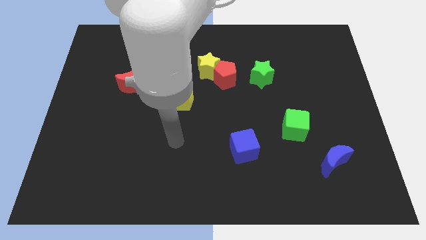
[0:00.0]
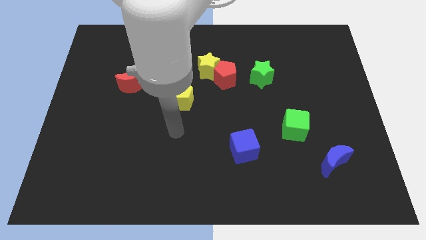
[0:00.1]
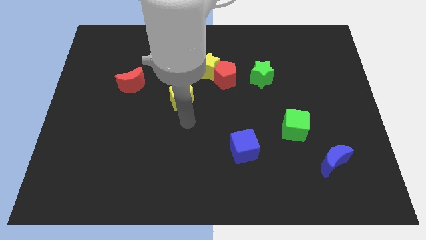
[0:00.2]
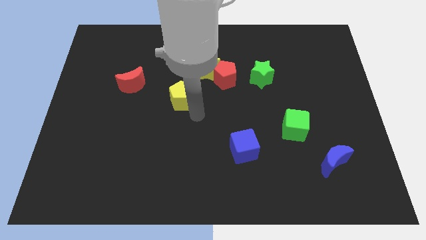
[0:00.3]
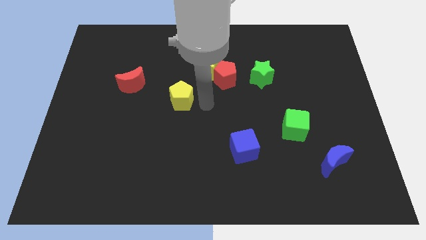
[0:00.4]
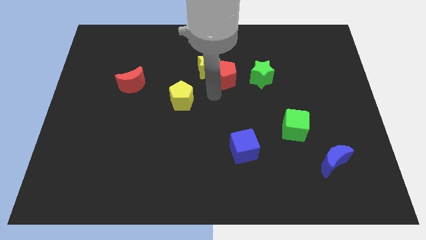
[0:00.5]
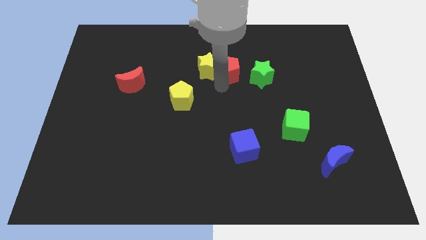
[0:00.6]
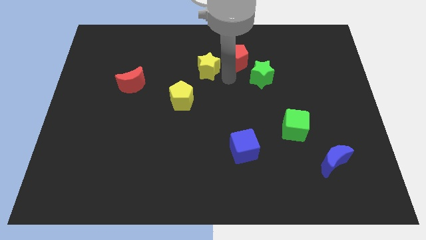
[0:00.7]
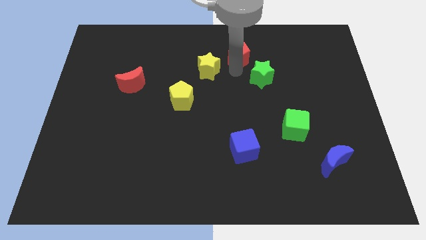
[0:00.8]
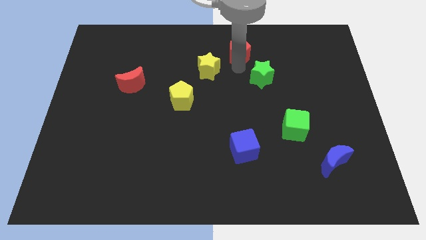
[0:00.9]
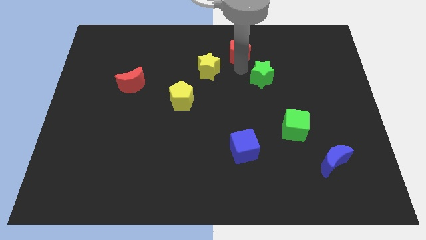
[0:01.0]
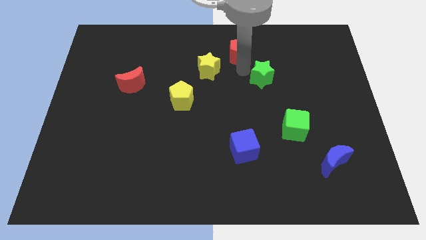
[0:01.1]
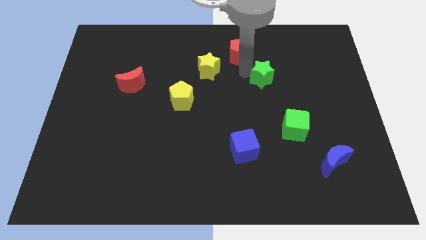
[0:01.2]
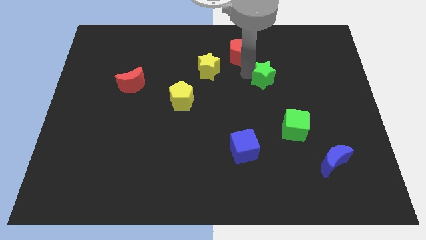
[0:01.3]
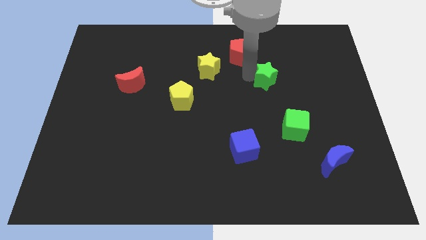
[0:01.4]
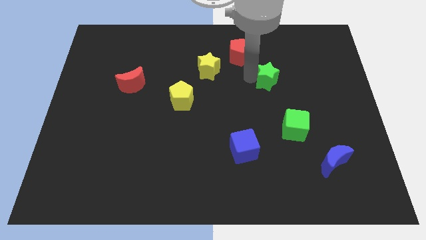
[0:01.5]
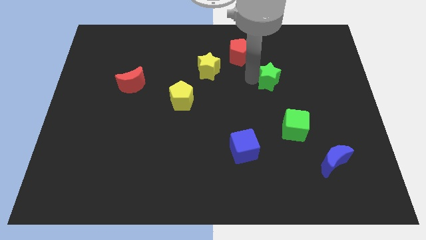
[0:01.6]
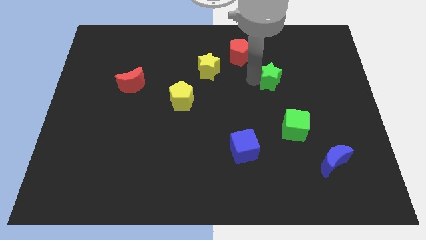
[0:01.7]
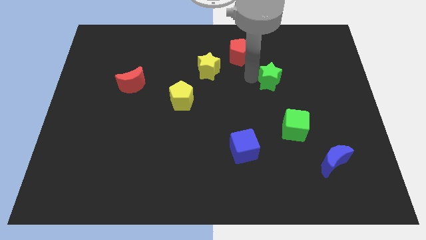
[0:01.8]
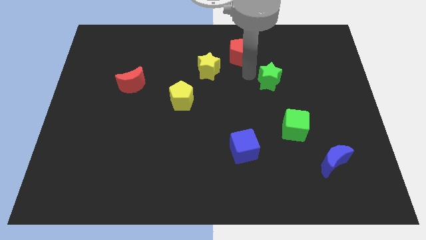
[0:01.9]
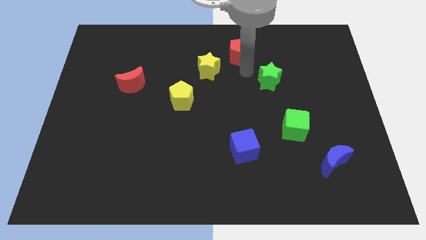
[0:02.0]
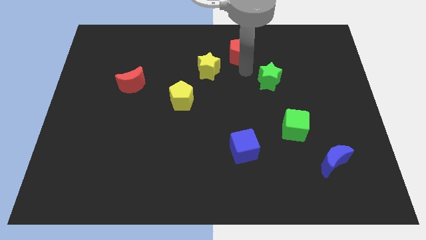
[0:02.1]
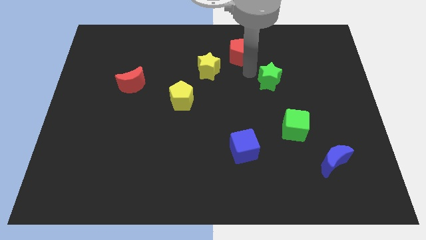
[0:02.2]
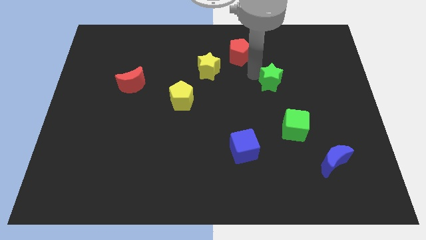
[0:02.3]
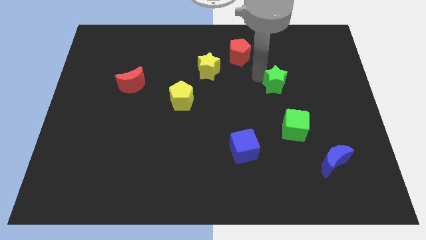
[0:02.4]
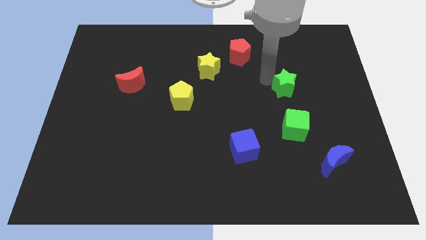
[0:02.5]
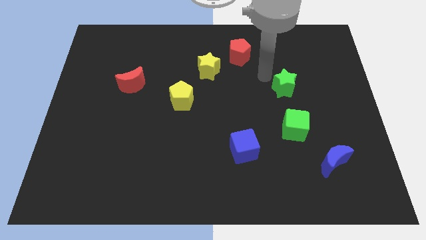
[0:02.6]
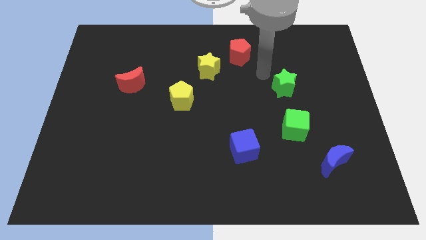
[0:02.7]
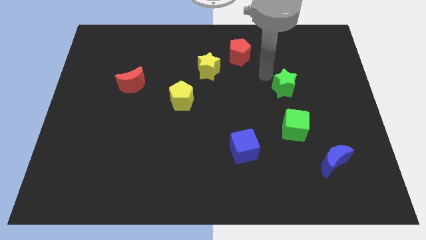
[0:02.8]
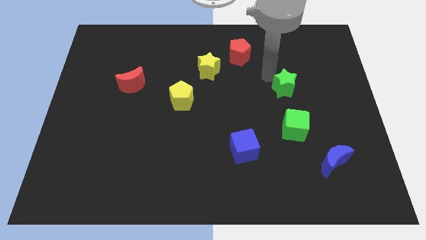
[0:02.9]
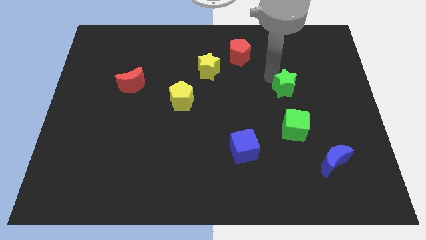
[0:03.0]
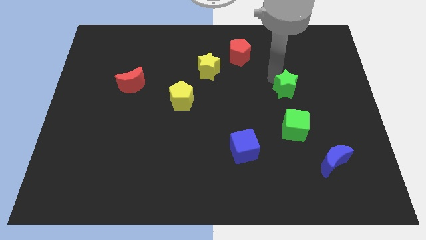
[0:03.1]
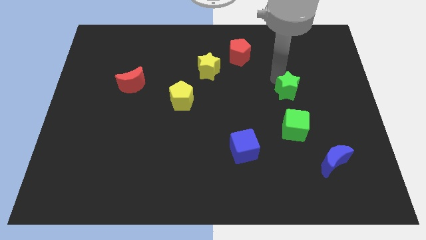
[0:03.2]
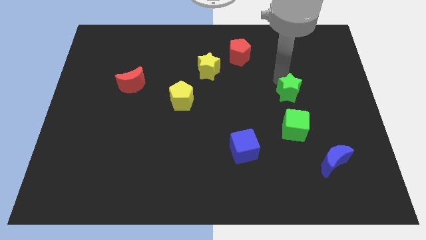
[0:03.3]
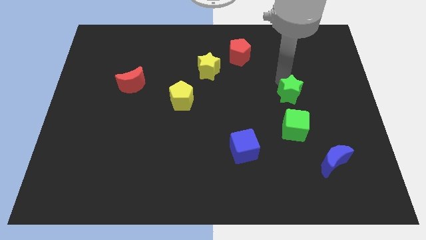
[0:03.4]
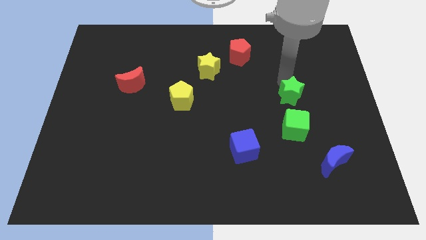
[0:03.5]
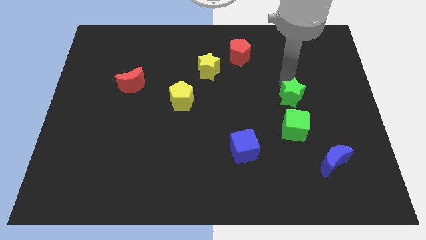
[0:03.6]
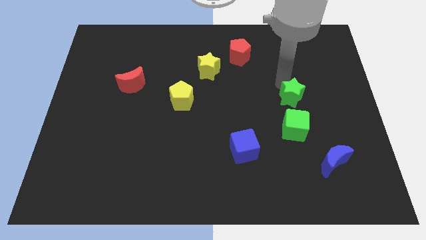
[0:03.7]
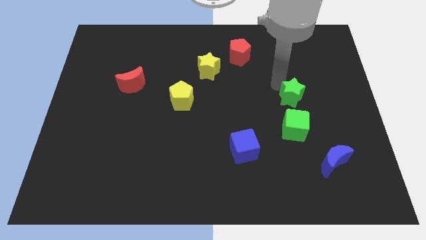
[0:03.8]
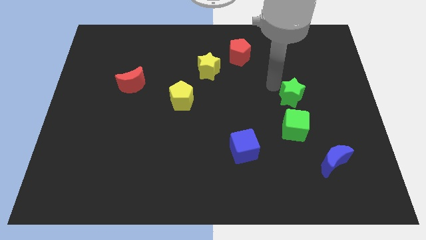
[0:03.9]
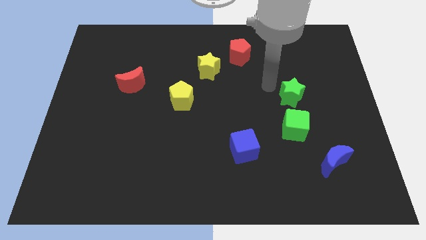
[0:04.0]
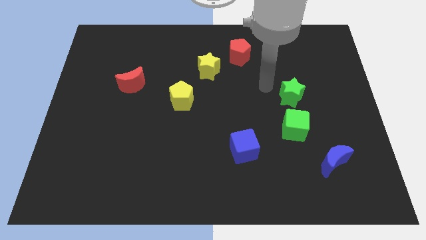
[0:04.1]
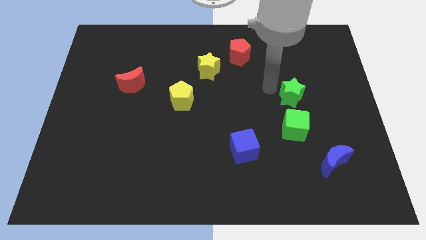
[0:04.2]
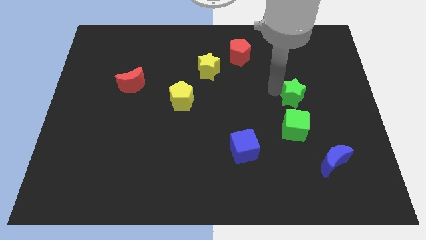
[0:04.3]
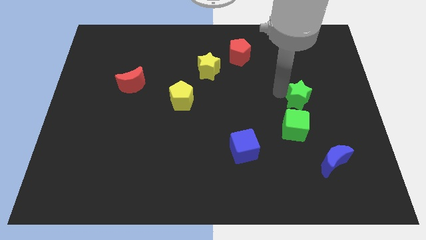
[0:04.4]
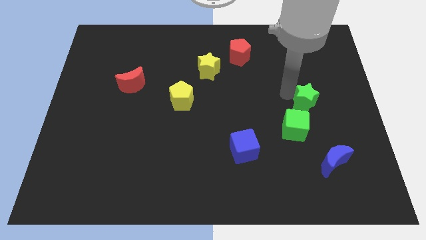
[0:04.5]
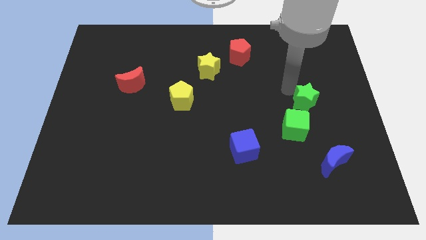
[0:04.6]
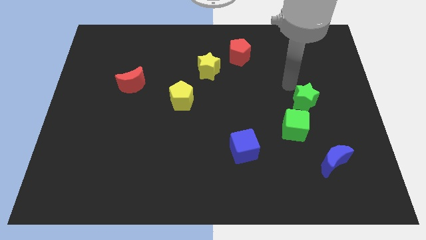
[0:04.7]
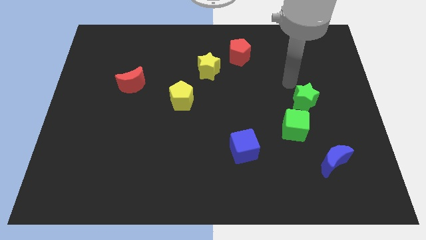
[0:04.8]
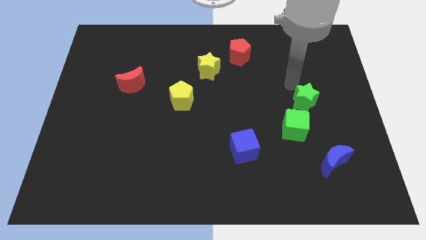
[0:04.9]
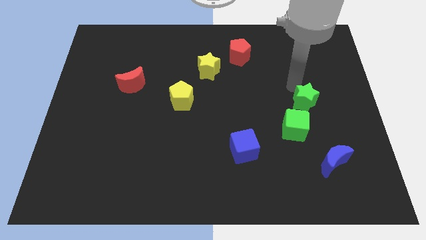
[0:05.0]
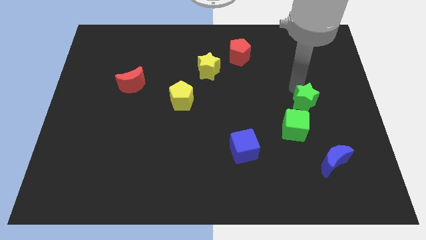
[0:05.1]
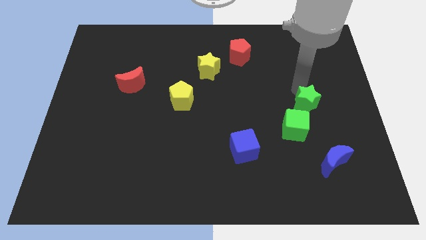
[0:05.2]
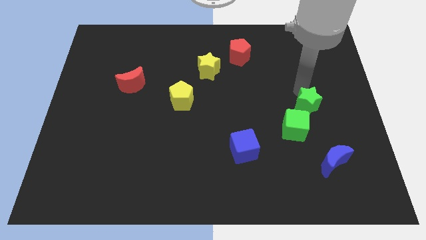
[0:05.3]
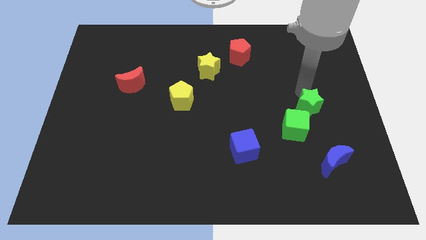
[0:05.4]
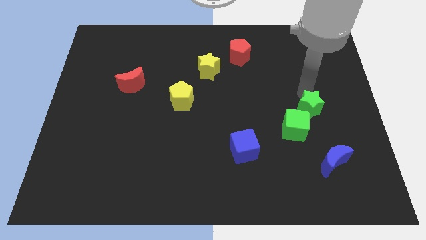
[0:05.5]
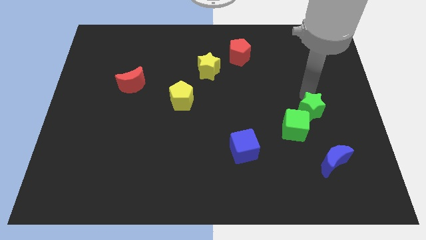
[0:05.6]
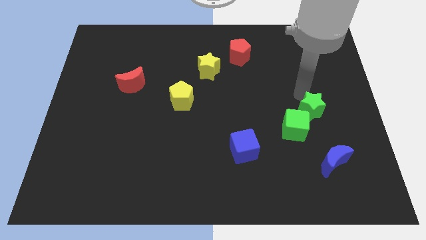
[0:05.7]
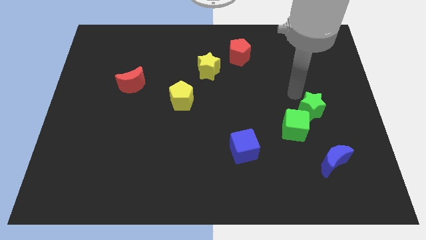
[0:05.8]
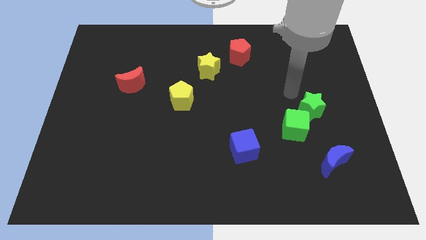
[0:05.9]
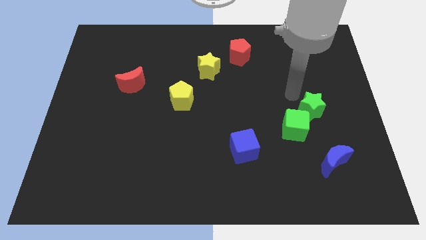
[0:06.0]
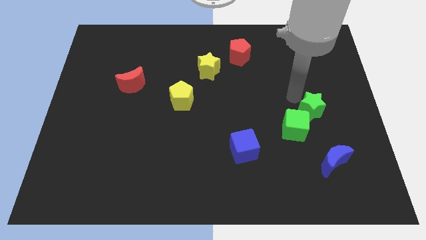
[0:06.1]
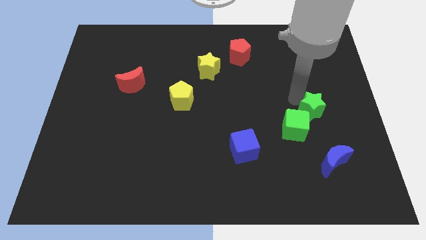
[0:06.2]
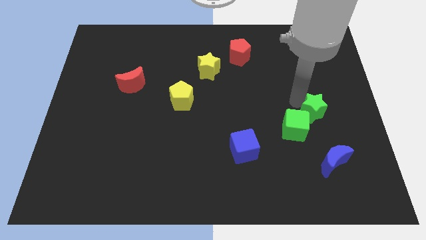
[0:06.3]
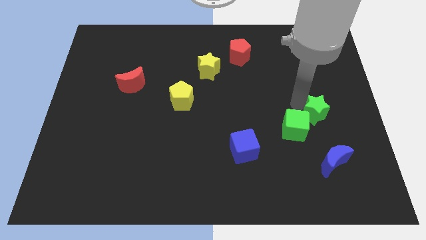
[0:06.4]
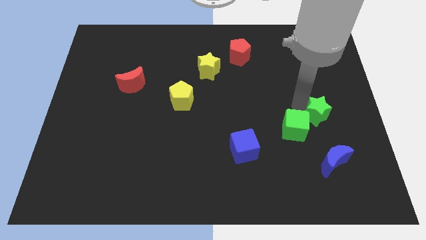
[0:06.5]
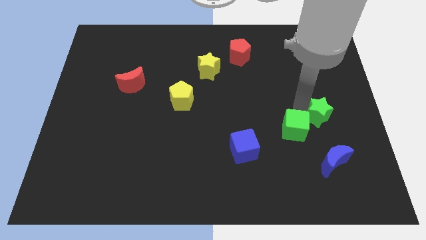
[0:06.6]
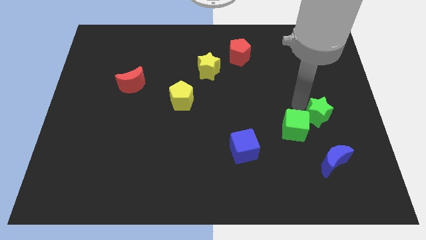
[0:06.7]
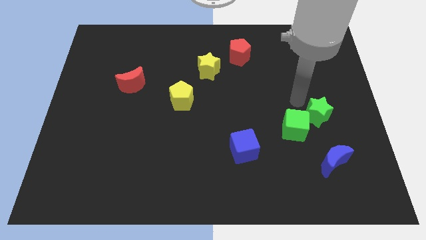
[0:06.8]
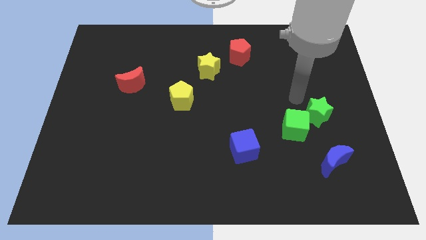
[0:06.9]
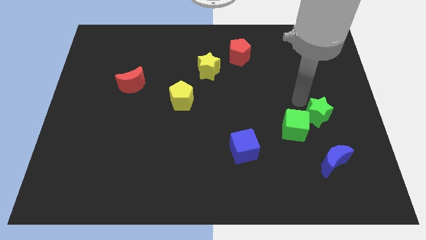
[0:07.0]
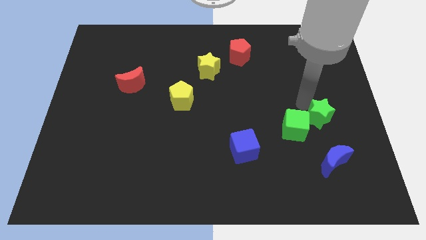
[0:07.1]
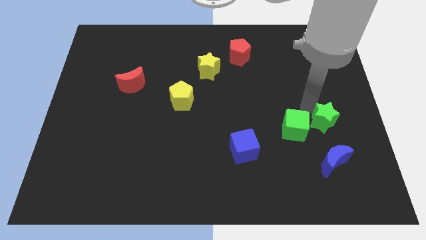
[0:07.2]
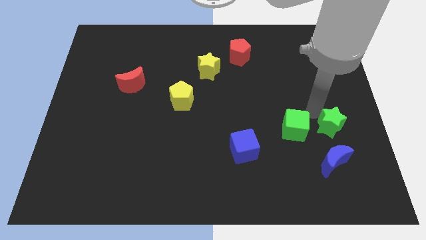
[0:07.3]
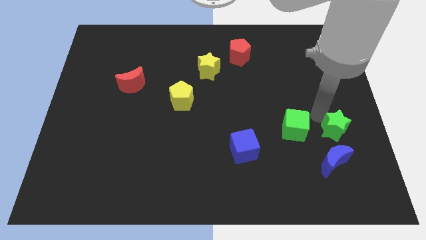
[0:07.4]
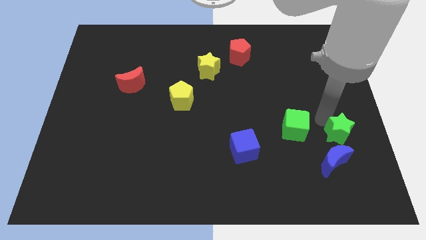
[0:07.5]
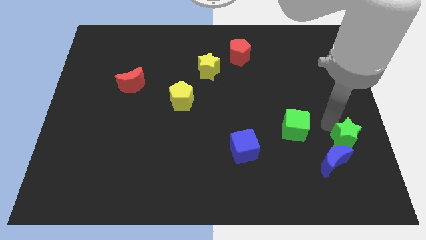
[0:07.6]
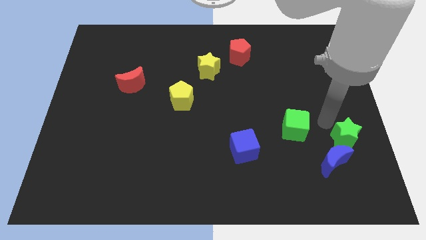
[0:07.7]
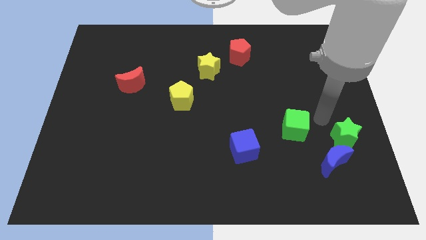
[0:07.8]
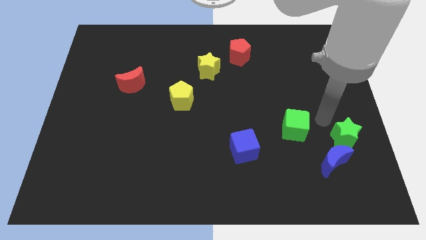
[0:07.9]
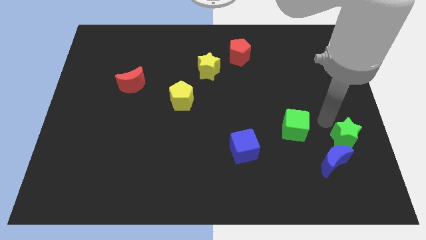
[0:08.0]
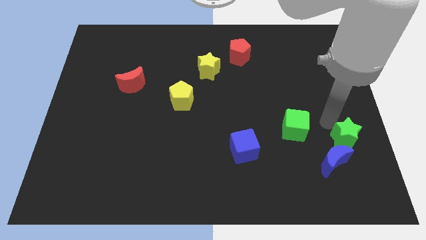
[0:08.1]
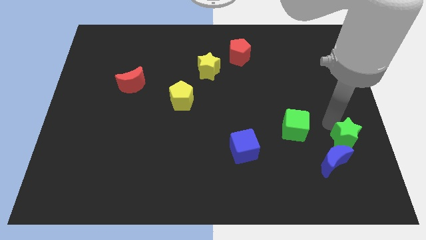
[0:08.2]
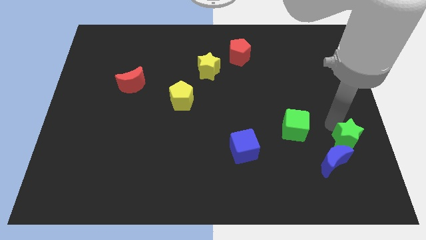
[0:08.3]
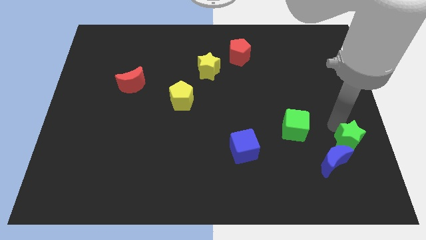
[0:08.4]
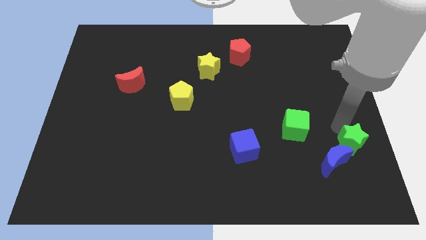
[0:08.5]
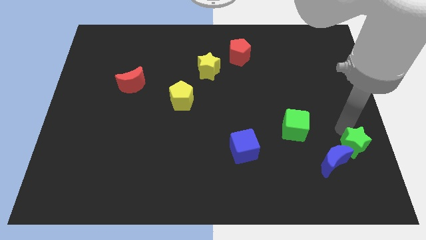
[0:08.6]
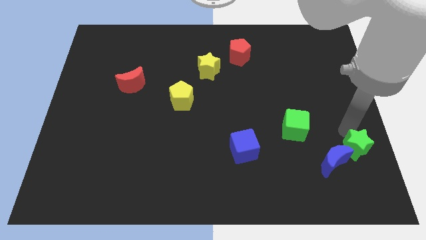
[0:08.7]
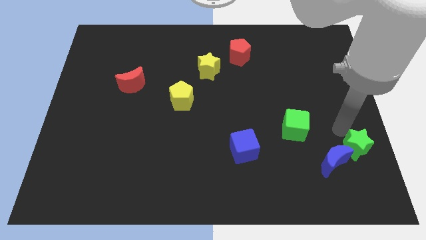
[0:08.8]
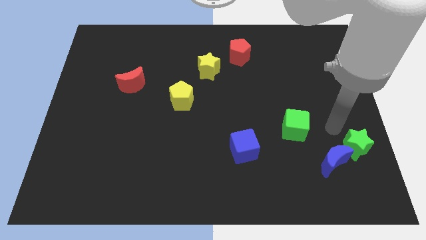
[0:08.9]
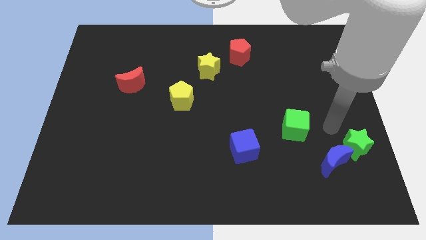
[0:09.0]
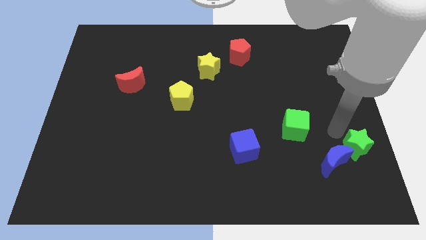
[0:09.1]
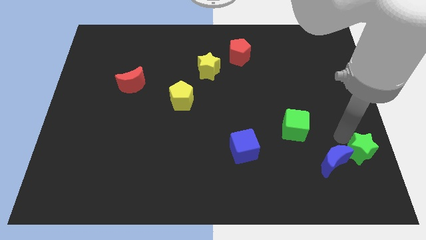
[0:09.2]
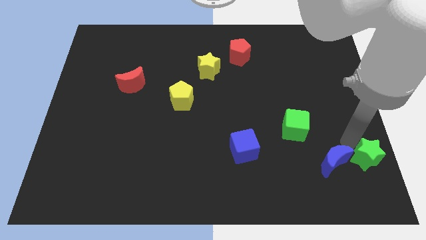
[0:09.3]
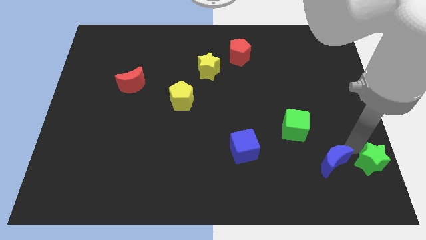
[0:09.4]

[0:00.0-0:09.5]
move the green star to the lower right corner
